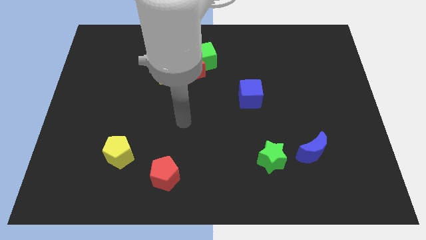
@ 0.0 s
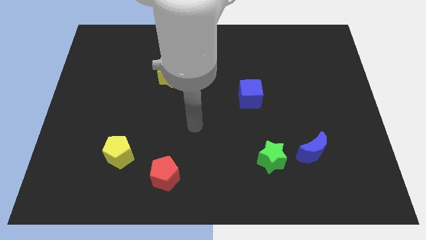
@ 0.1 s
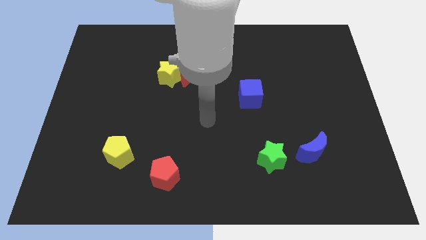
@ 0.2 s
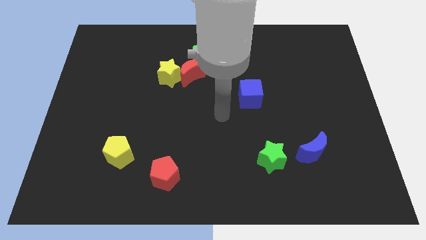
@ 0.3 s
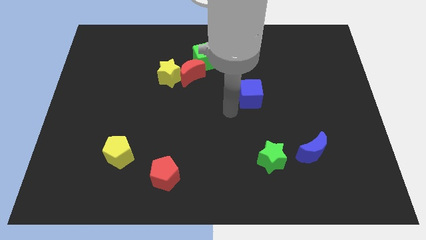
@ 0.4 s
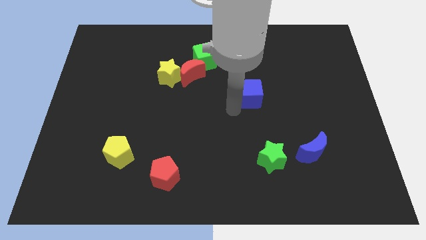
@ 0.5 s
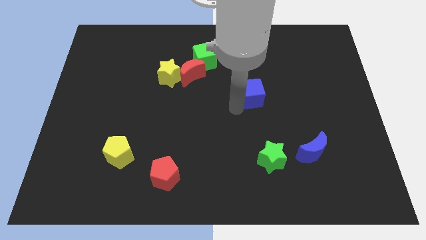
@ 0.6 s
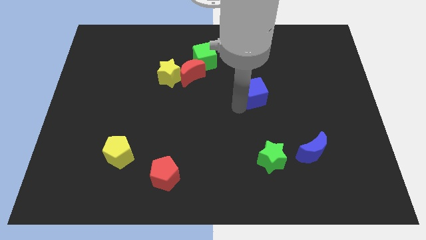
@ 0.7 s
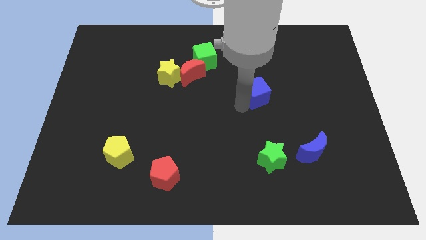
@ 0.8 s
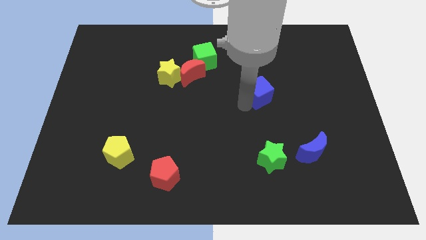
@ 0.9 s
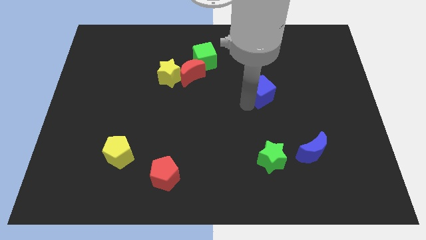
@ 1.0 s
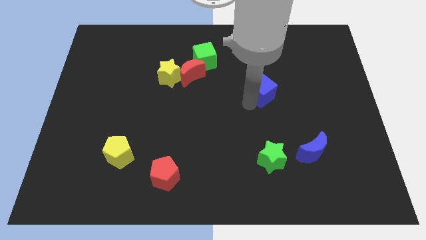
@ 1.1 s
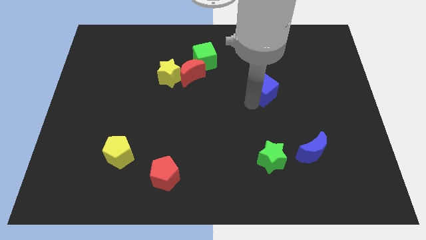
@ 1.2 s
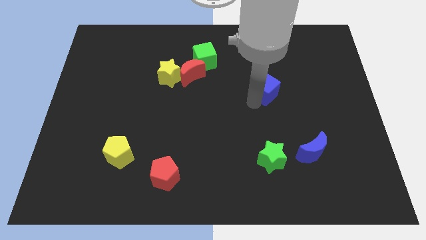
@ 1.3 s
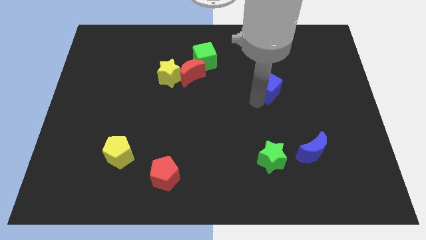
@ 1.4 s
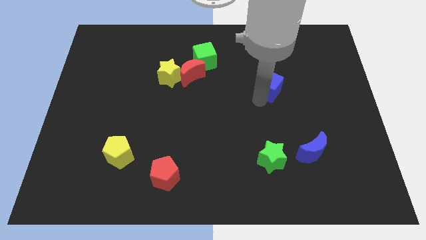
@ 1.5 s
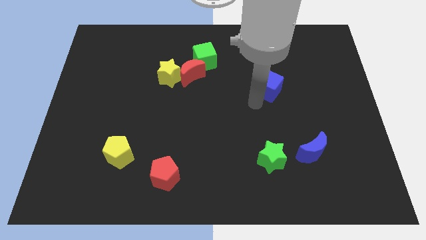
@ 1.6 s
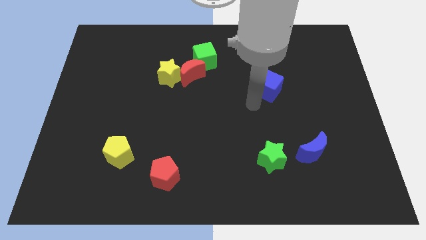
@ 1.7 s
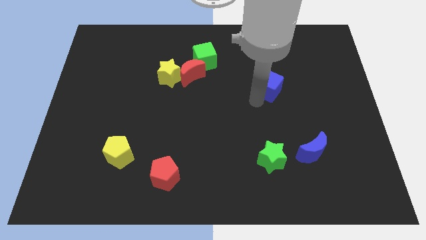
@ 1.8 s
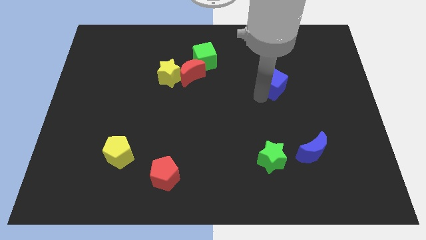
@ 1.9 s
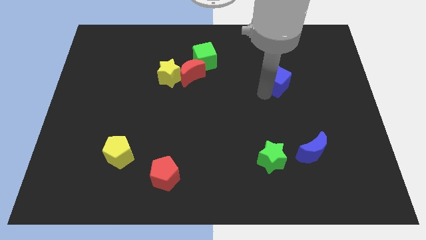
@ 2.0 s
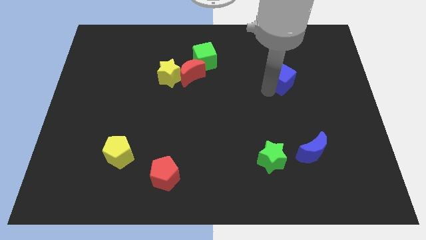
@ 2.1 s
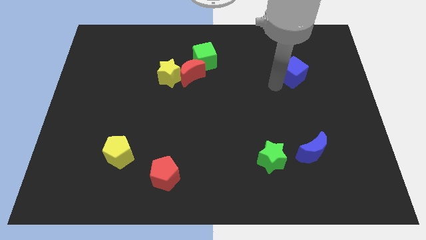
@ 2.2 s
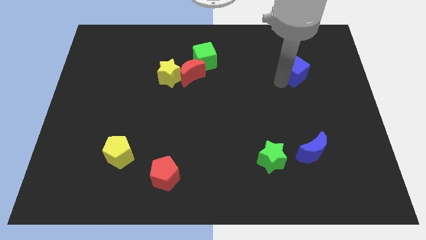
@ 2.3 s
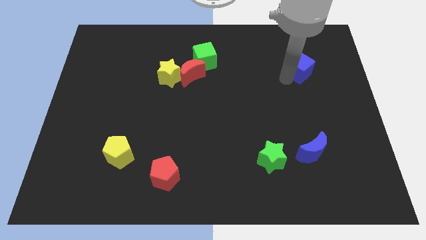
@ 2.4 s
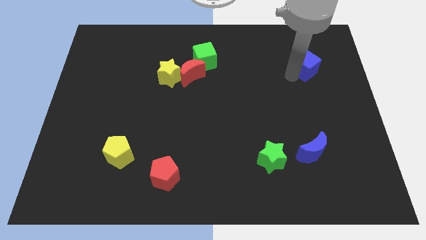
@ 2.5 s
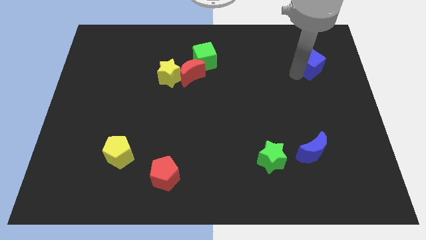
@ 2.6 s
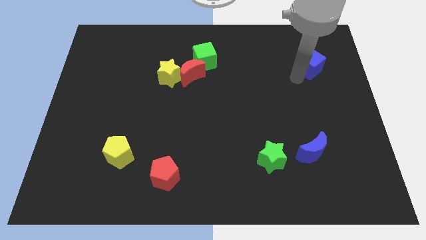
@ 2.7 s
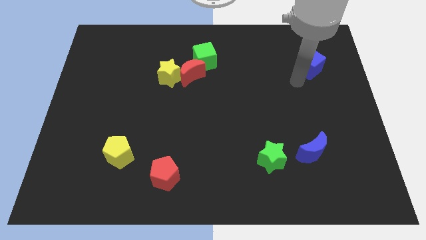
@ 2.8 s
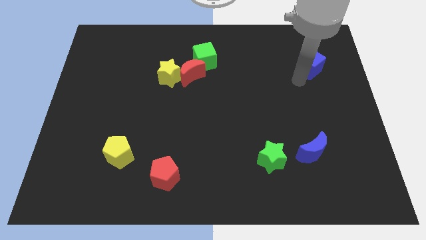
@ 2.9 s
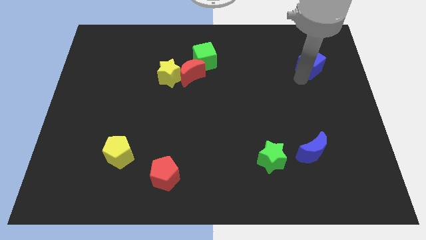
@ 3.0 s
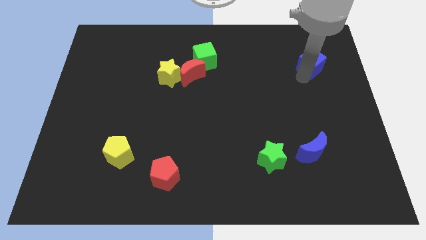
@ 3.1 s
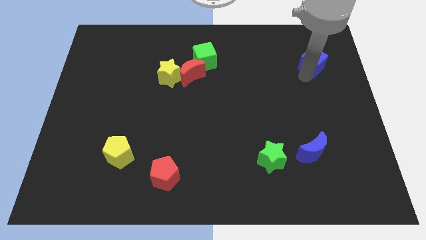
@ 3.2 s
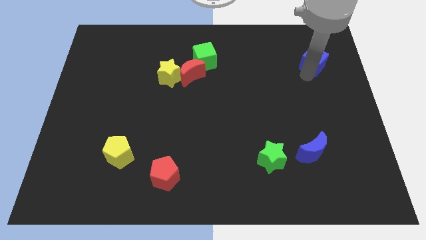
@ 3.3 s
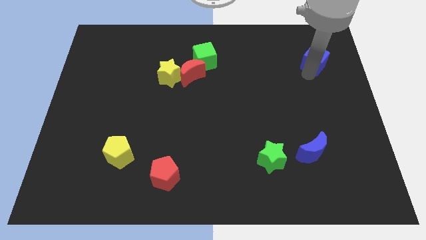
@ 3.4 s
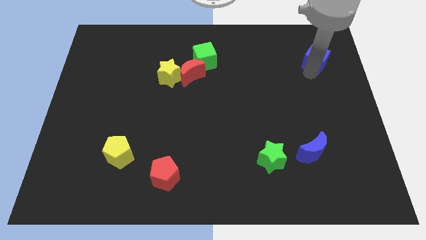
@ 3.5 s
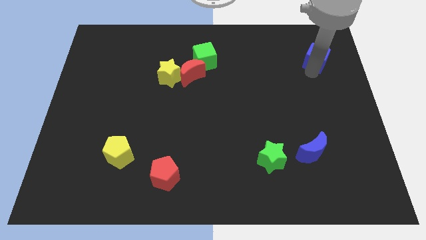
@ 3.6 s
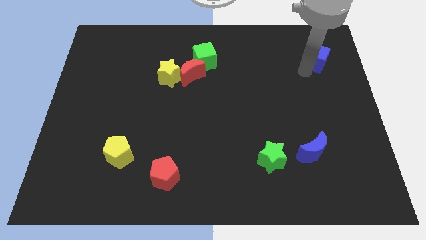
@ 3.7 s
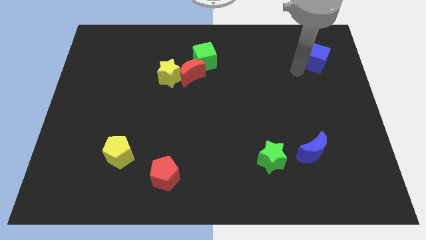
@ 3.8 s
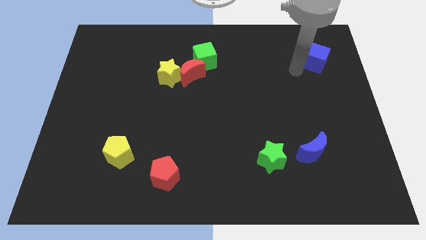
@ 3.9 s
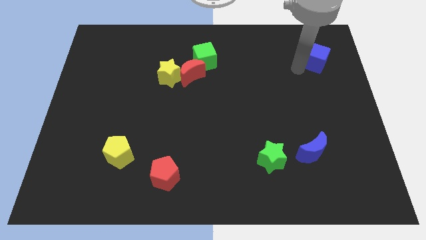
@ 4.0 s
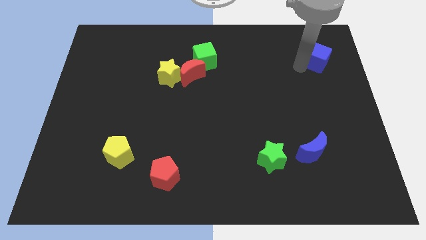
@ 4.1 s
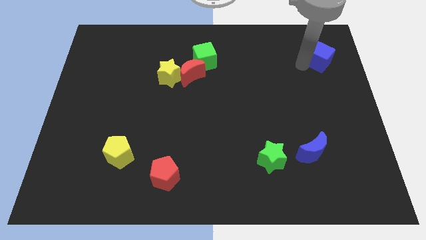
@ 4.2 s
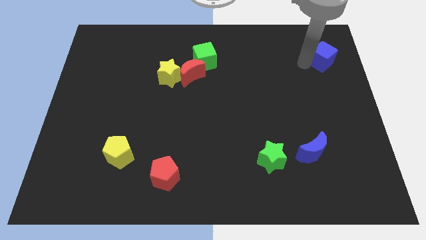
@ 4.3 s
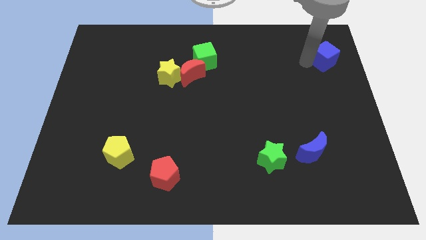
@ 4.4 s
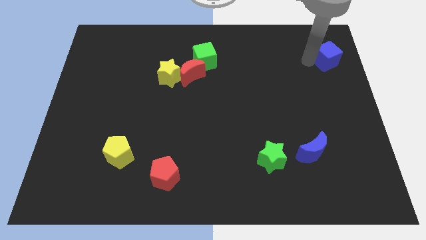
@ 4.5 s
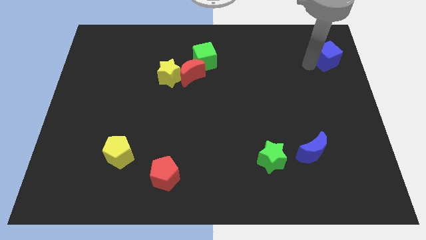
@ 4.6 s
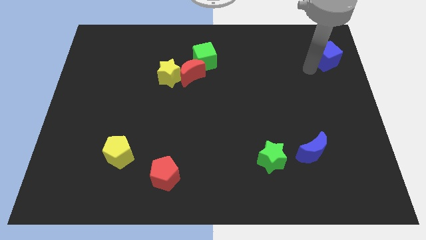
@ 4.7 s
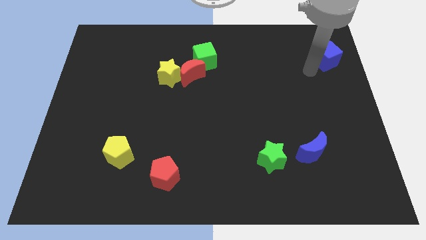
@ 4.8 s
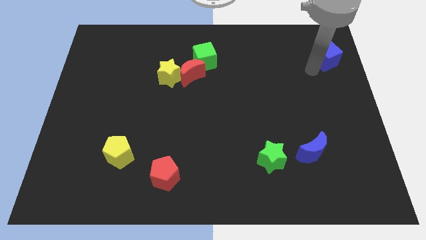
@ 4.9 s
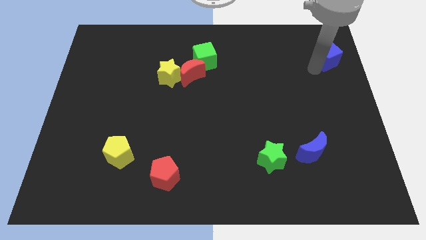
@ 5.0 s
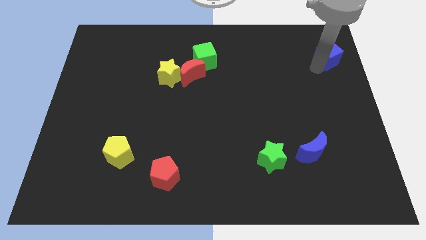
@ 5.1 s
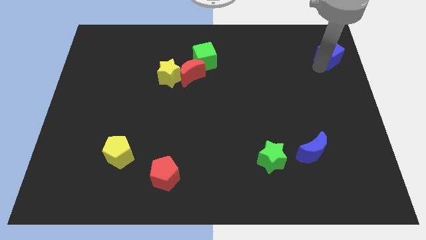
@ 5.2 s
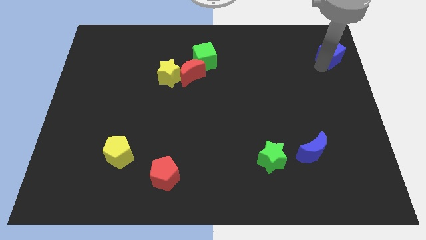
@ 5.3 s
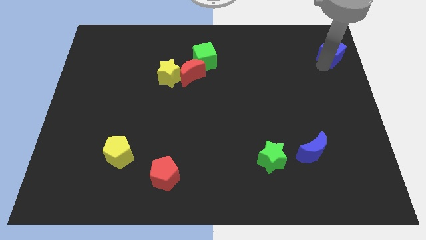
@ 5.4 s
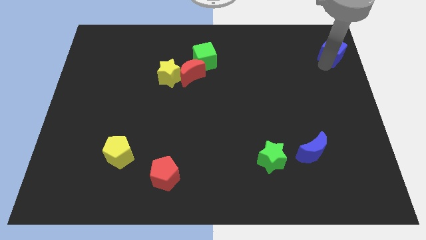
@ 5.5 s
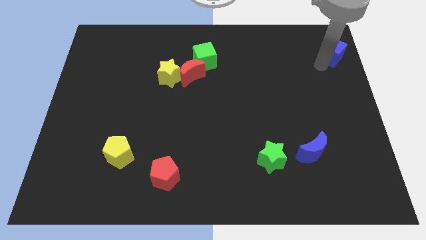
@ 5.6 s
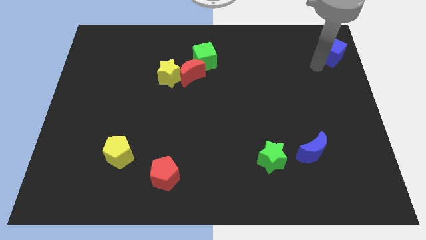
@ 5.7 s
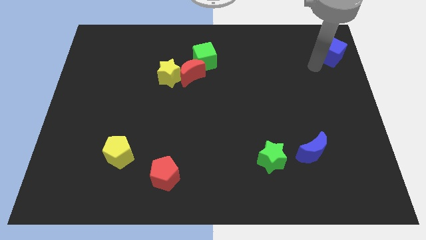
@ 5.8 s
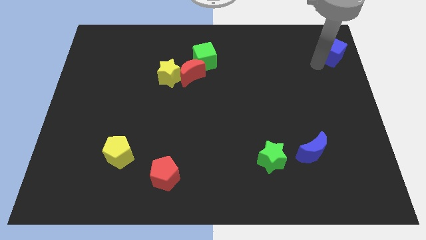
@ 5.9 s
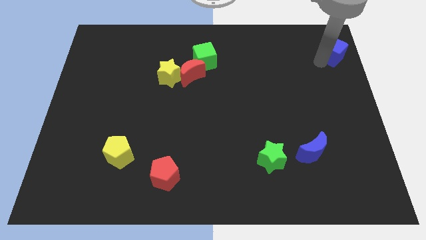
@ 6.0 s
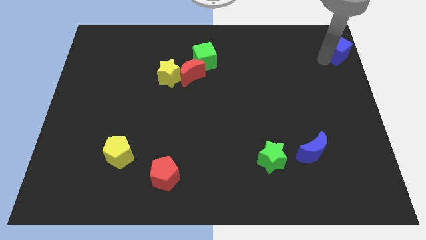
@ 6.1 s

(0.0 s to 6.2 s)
push the blue cube to the upper right corner
